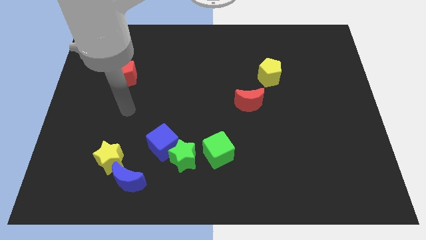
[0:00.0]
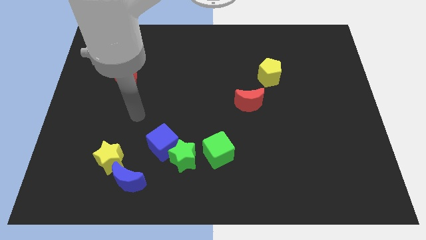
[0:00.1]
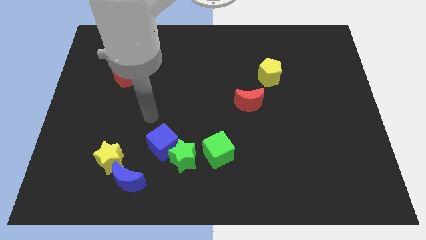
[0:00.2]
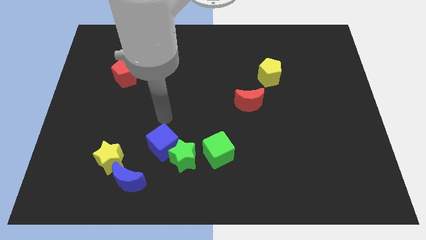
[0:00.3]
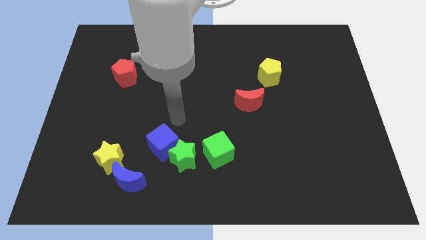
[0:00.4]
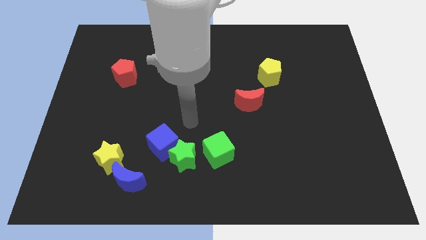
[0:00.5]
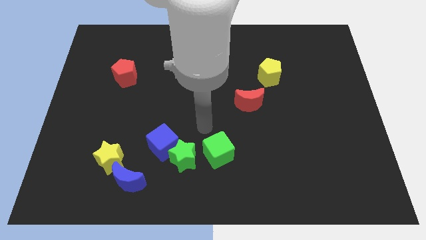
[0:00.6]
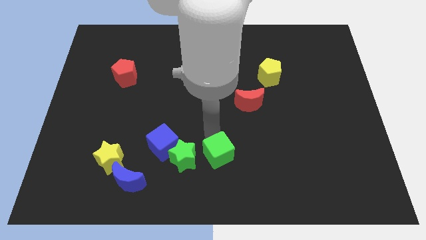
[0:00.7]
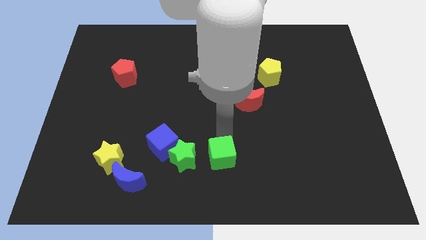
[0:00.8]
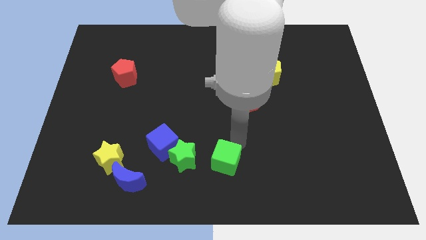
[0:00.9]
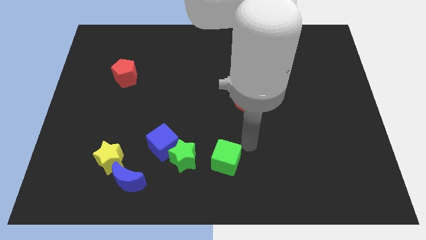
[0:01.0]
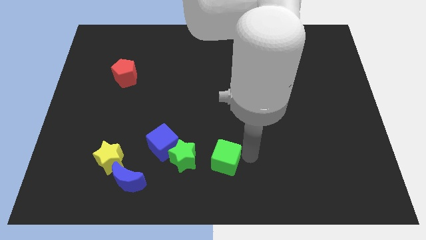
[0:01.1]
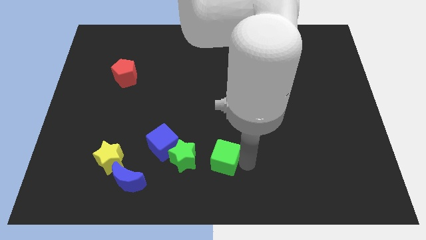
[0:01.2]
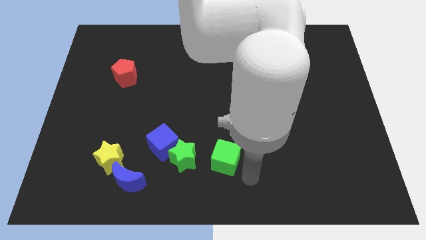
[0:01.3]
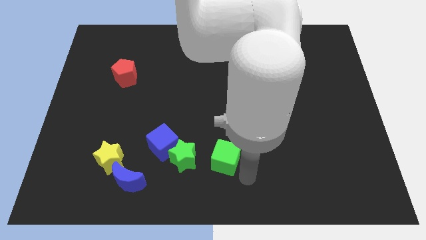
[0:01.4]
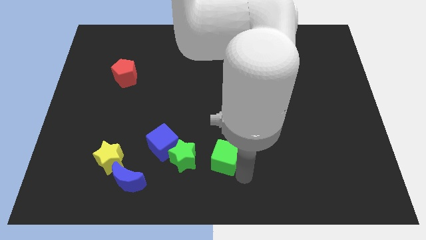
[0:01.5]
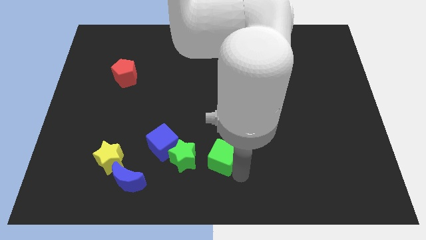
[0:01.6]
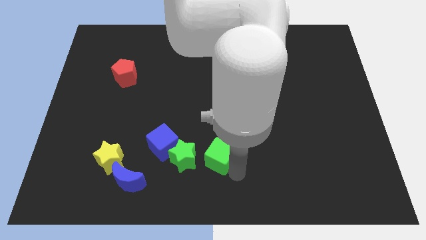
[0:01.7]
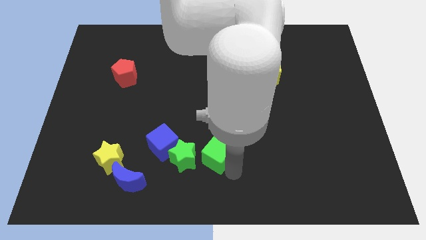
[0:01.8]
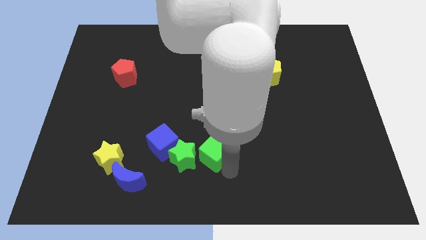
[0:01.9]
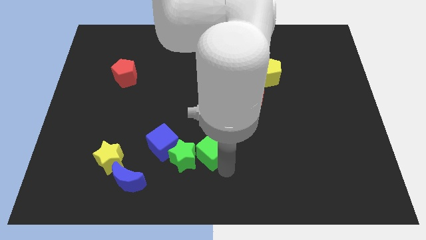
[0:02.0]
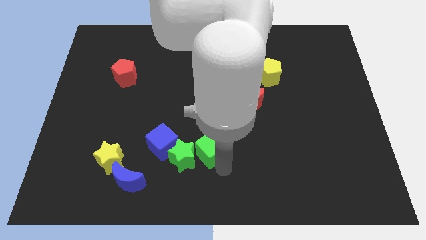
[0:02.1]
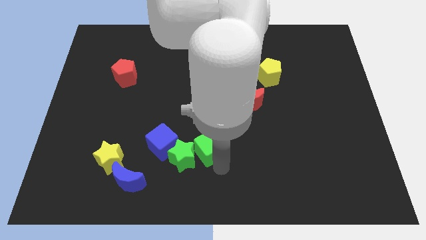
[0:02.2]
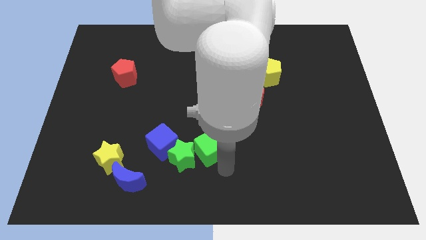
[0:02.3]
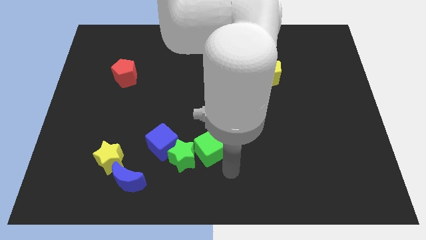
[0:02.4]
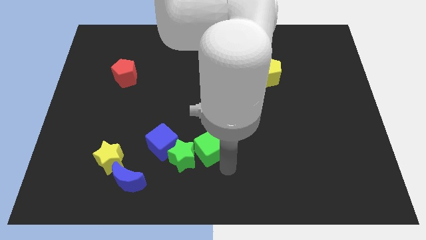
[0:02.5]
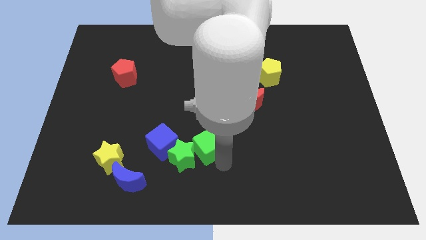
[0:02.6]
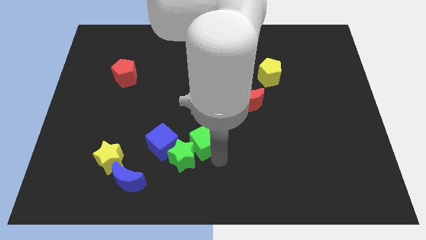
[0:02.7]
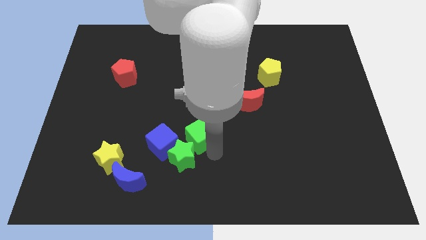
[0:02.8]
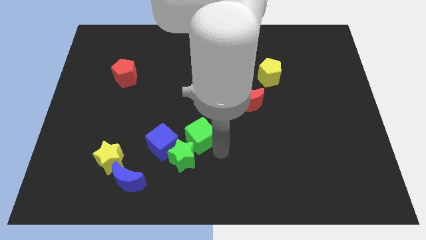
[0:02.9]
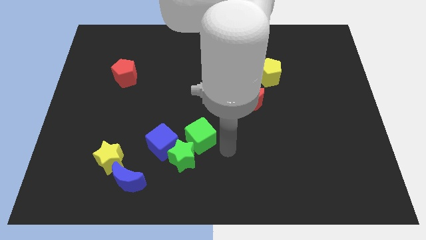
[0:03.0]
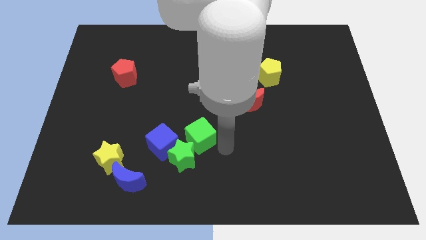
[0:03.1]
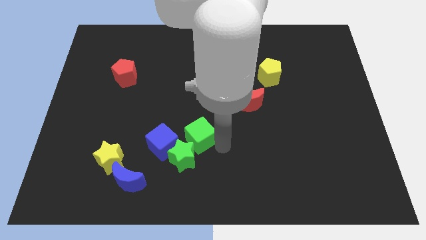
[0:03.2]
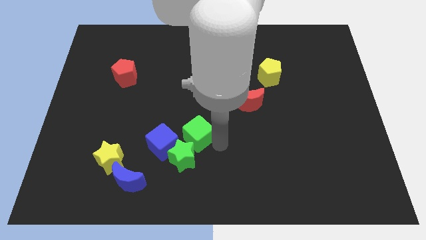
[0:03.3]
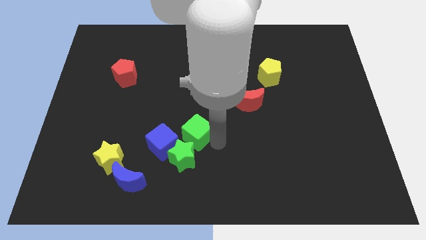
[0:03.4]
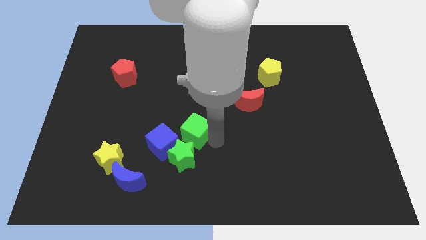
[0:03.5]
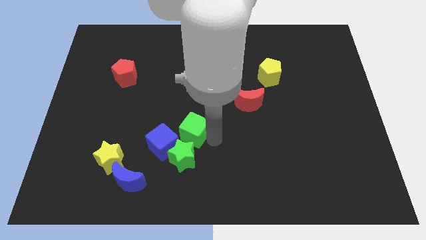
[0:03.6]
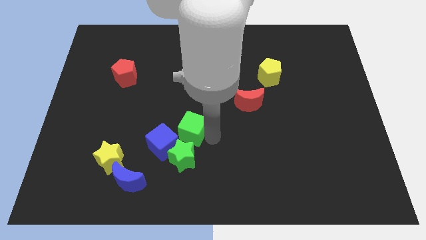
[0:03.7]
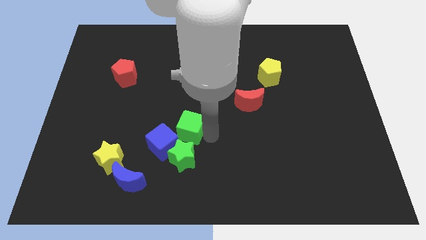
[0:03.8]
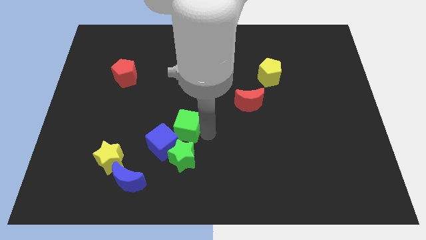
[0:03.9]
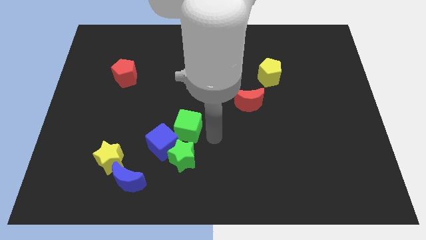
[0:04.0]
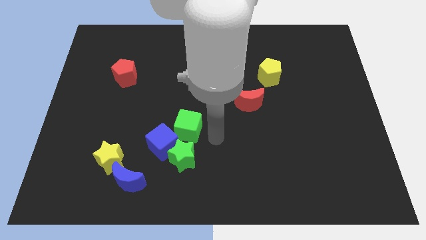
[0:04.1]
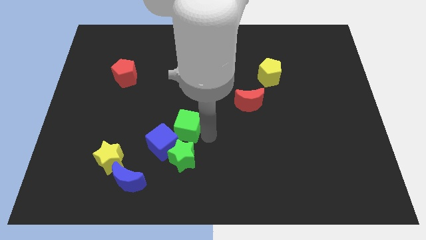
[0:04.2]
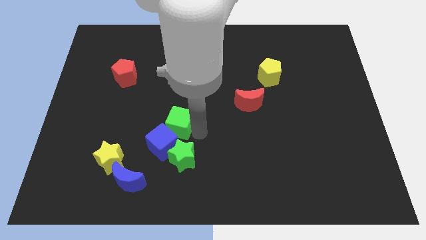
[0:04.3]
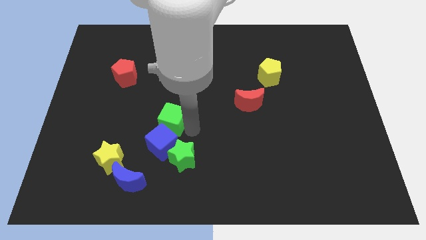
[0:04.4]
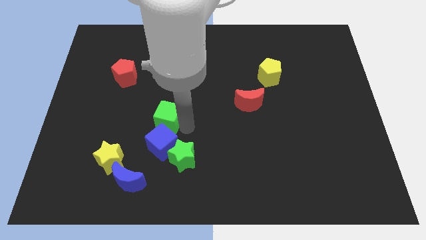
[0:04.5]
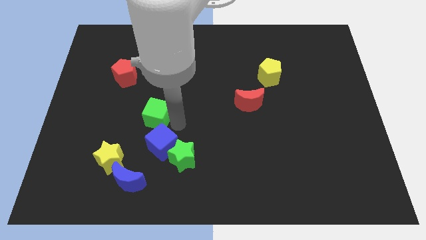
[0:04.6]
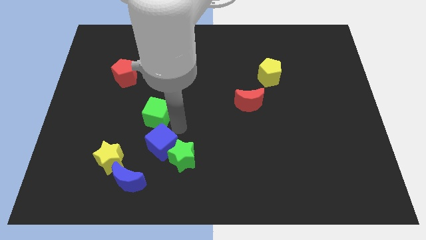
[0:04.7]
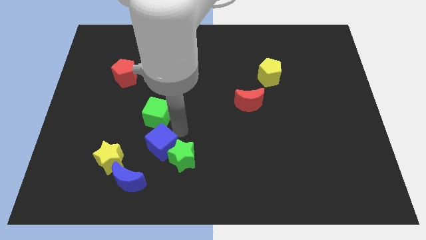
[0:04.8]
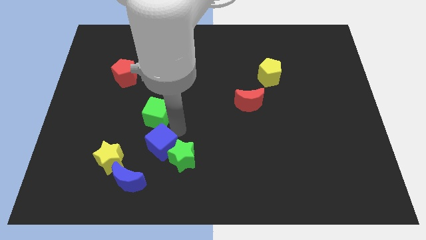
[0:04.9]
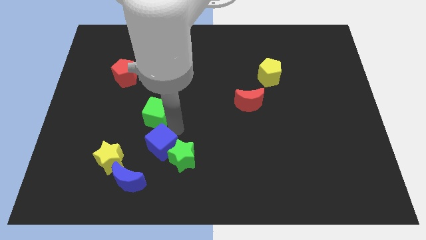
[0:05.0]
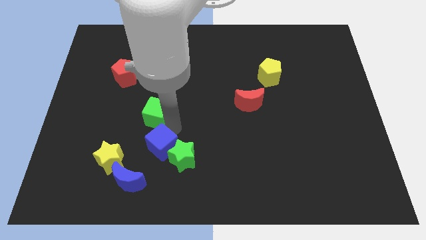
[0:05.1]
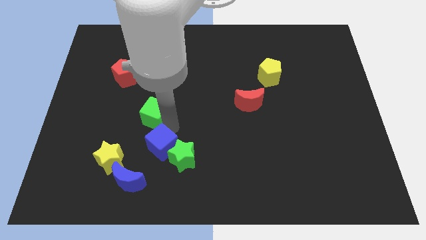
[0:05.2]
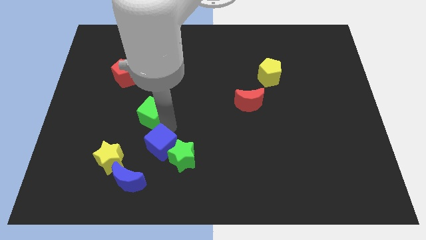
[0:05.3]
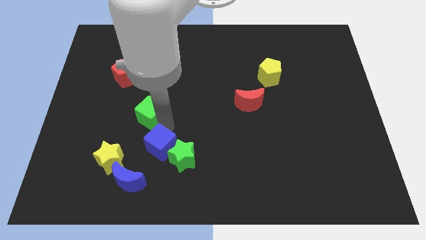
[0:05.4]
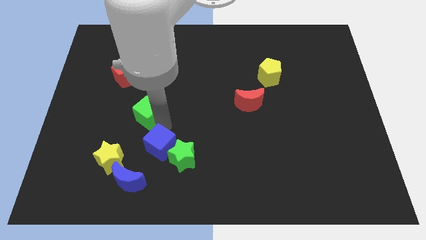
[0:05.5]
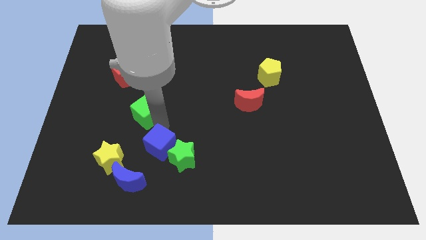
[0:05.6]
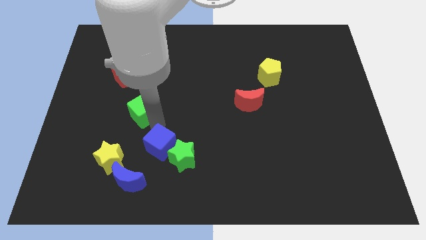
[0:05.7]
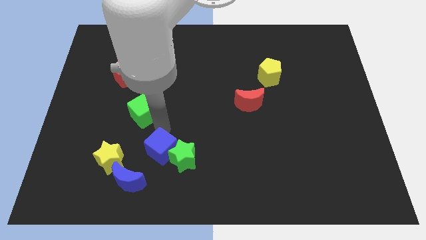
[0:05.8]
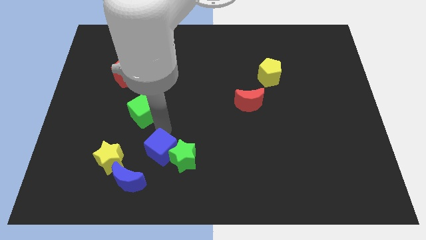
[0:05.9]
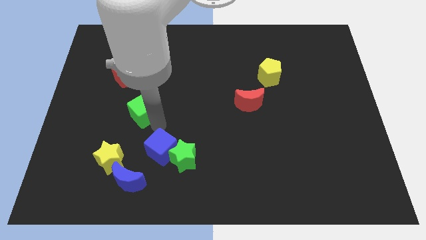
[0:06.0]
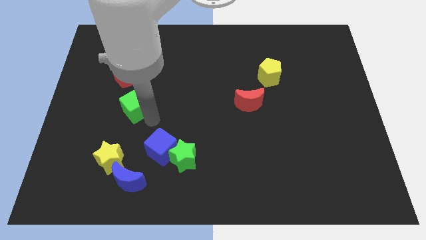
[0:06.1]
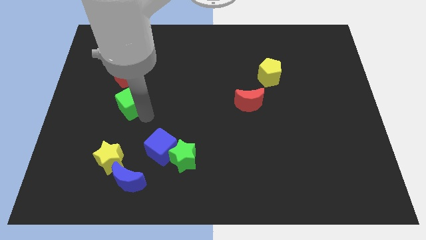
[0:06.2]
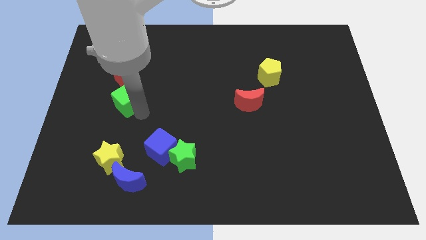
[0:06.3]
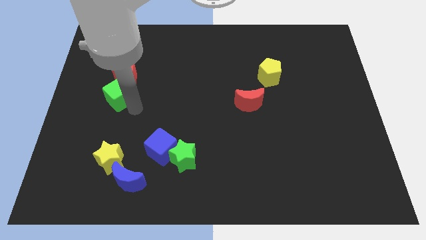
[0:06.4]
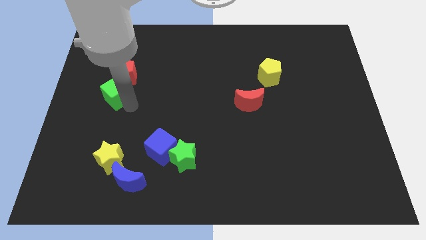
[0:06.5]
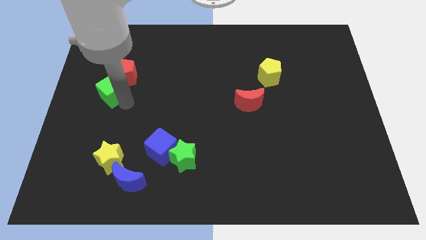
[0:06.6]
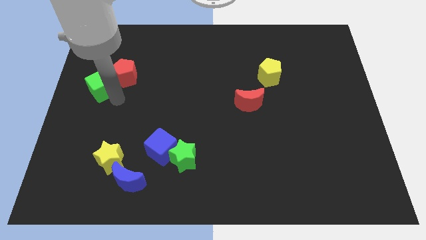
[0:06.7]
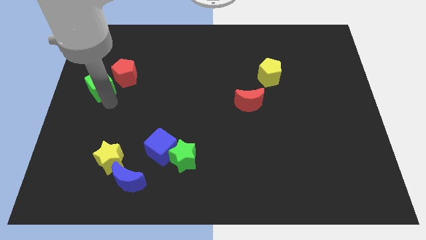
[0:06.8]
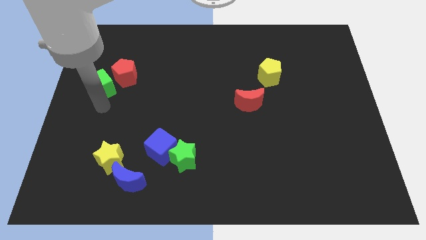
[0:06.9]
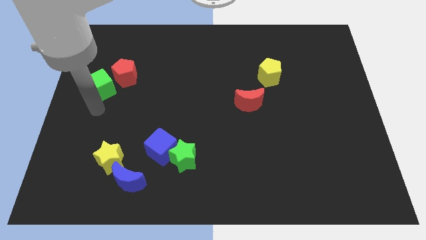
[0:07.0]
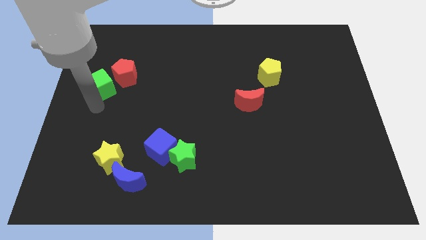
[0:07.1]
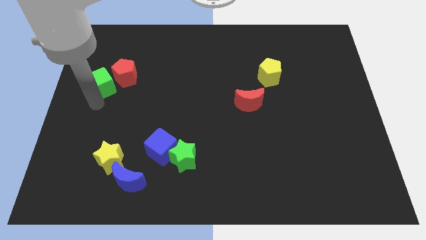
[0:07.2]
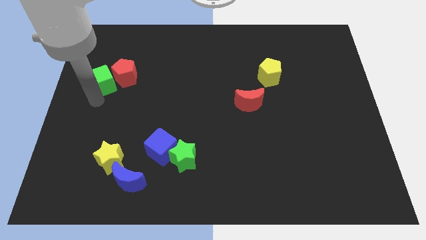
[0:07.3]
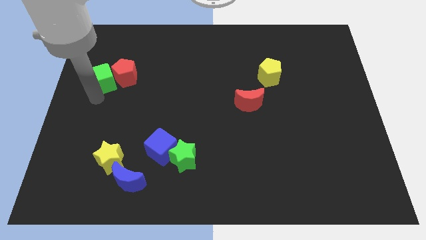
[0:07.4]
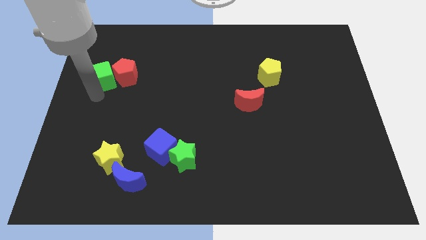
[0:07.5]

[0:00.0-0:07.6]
put the green cube to the top left side of the red pentagon

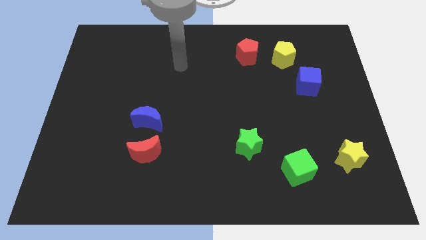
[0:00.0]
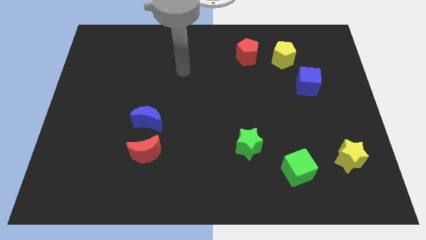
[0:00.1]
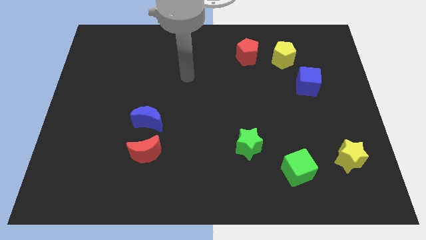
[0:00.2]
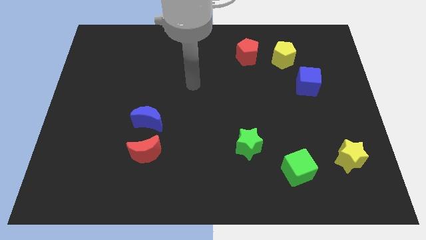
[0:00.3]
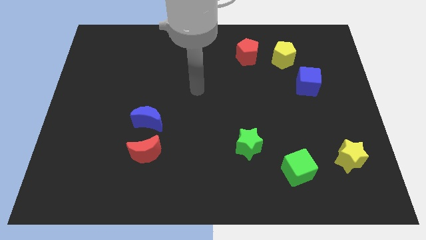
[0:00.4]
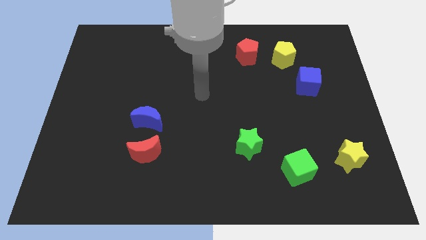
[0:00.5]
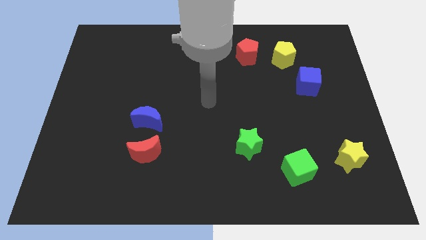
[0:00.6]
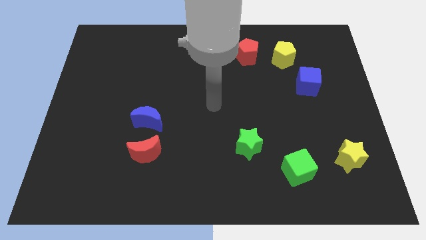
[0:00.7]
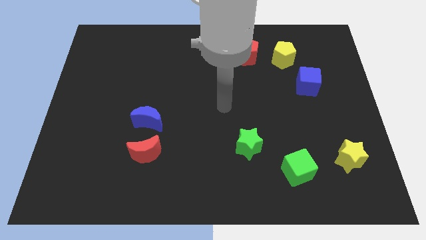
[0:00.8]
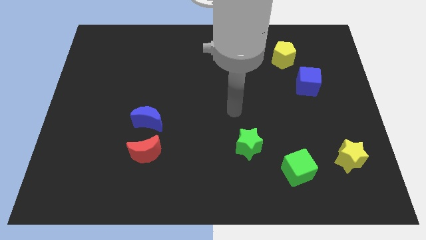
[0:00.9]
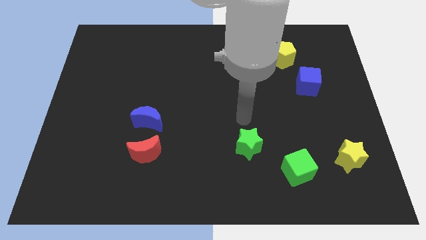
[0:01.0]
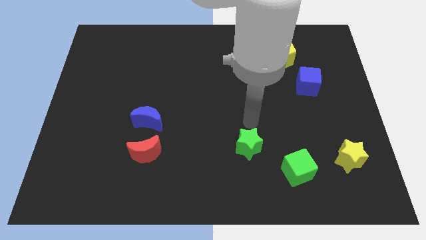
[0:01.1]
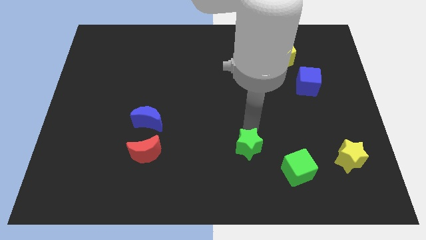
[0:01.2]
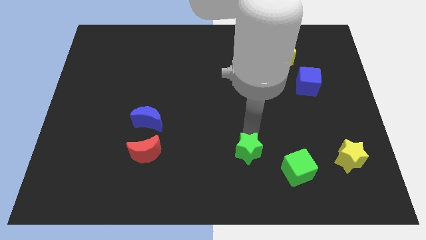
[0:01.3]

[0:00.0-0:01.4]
put the green star just left of the green cube
